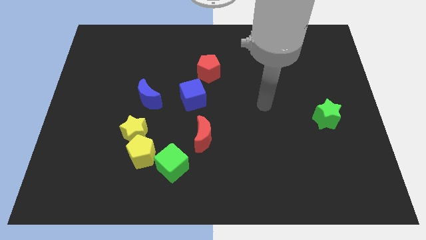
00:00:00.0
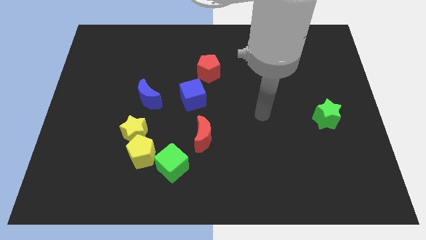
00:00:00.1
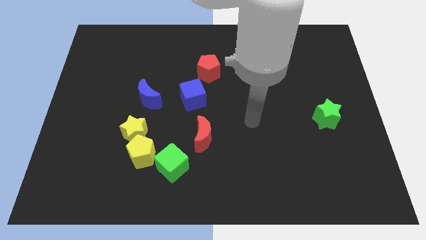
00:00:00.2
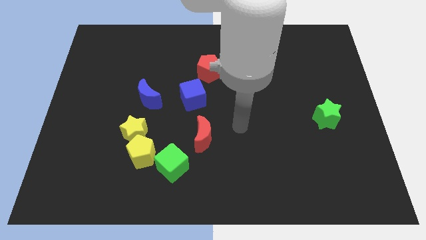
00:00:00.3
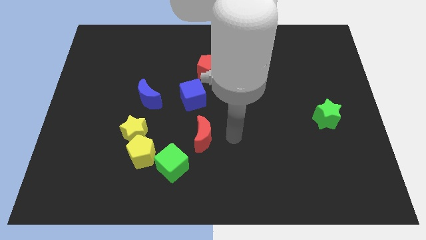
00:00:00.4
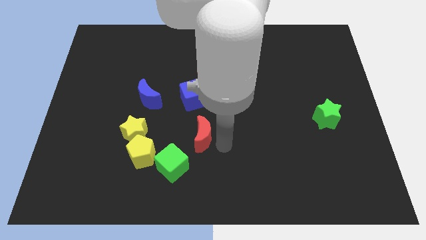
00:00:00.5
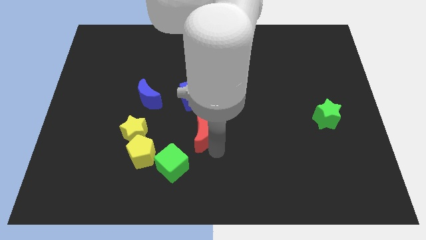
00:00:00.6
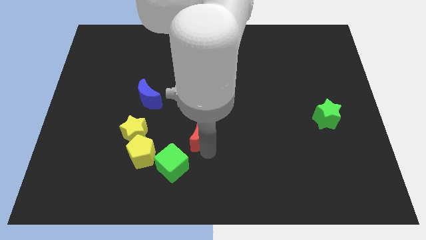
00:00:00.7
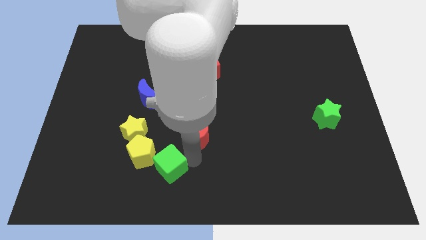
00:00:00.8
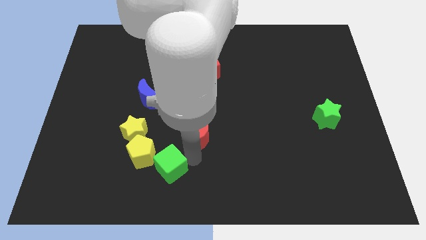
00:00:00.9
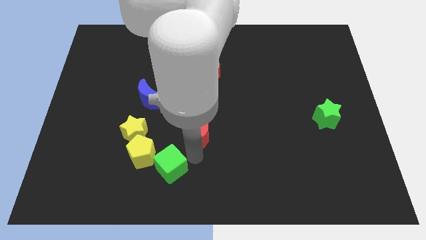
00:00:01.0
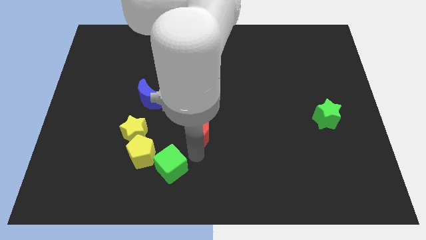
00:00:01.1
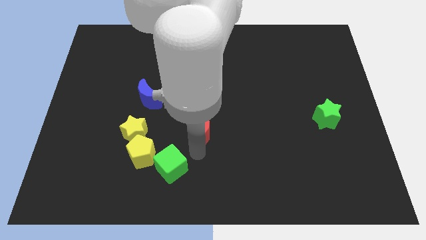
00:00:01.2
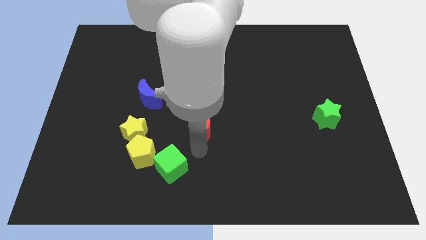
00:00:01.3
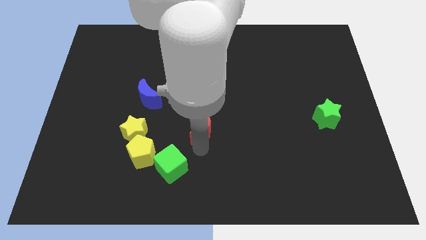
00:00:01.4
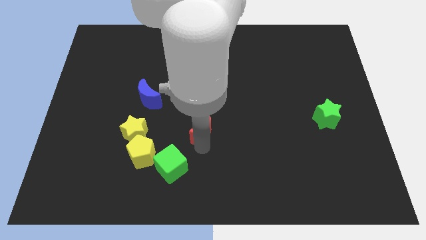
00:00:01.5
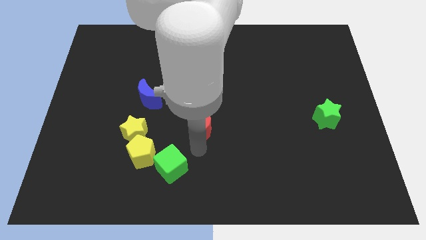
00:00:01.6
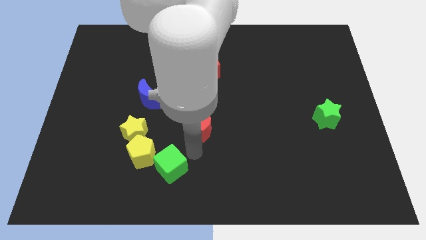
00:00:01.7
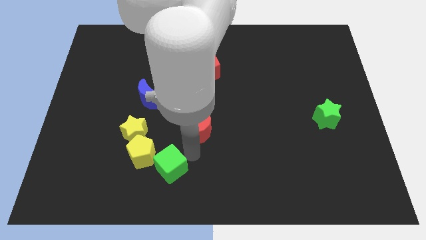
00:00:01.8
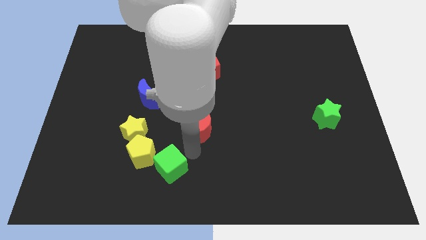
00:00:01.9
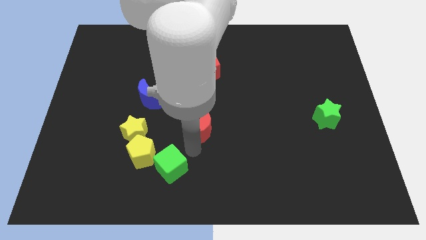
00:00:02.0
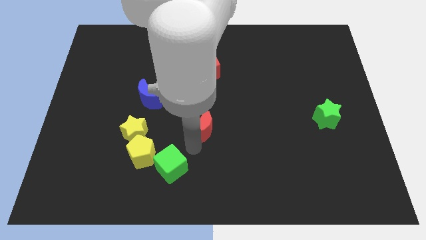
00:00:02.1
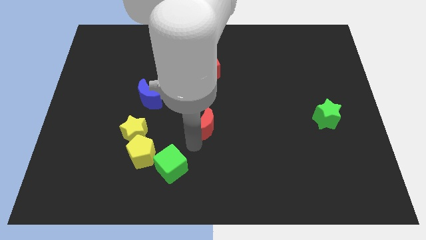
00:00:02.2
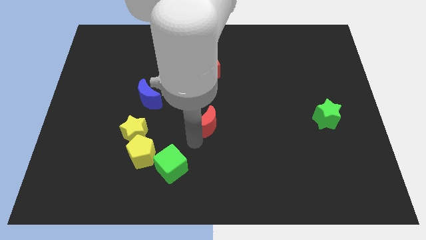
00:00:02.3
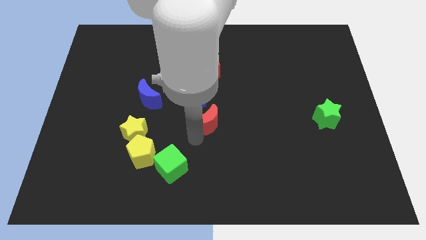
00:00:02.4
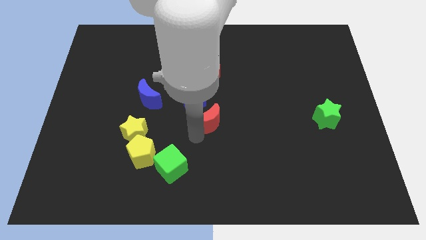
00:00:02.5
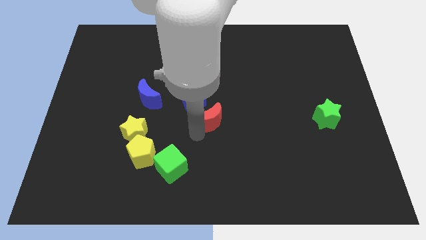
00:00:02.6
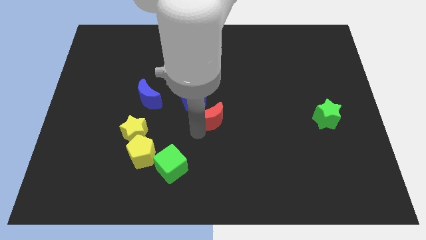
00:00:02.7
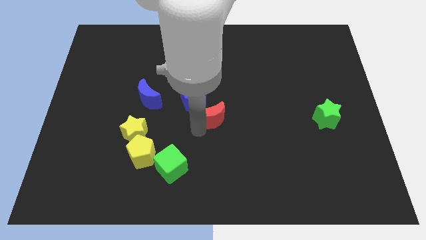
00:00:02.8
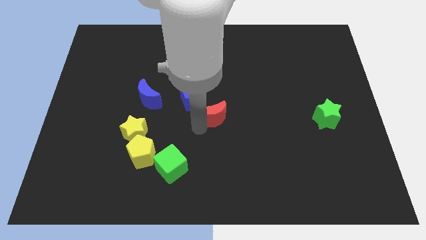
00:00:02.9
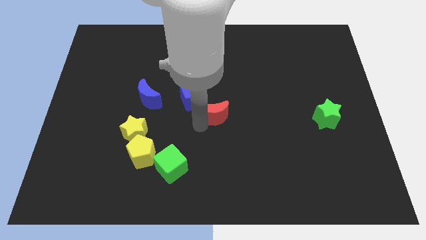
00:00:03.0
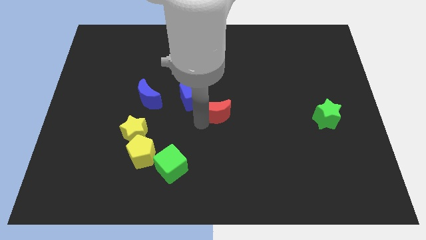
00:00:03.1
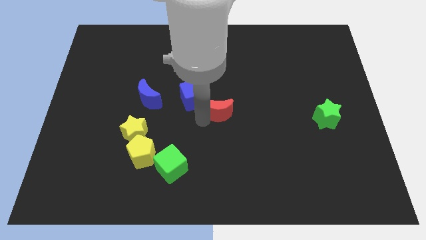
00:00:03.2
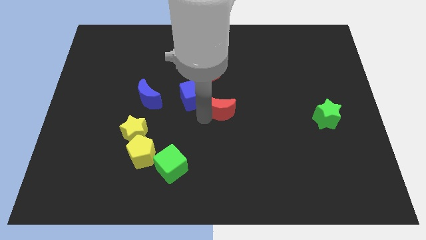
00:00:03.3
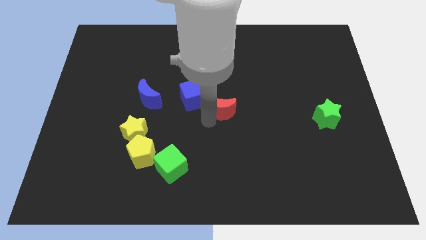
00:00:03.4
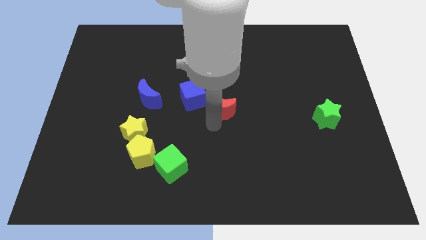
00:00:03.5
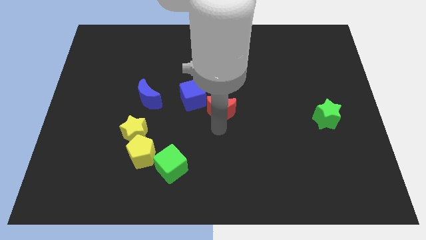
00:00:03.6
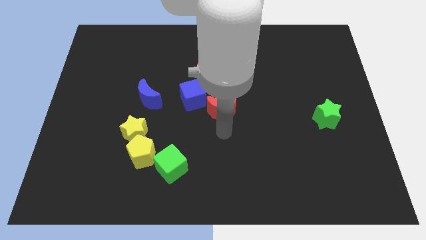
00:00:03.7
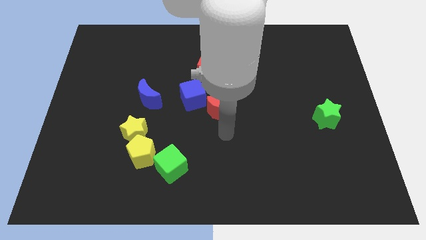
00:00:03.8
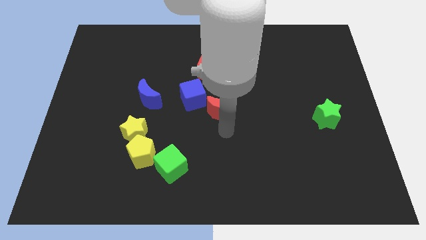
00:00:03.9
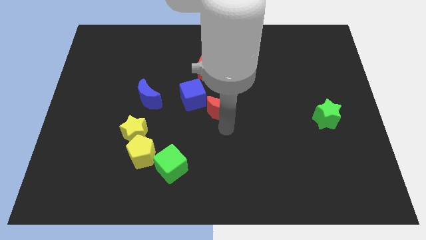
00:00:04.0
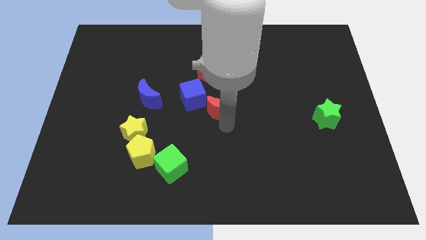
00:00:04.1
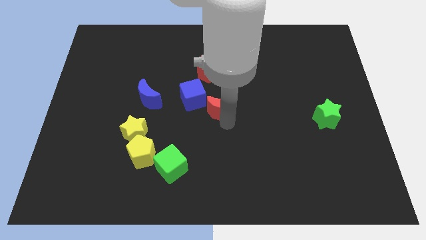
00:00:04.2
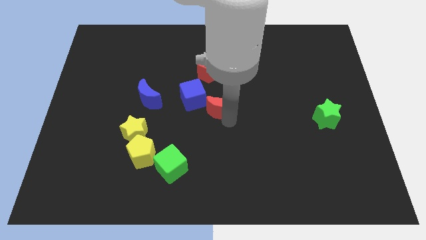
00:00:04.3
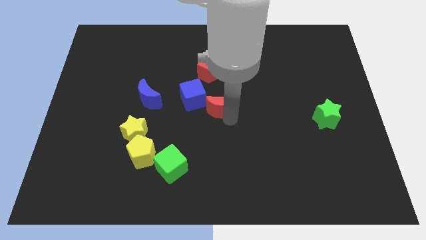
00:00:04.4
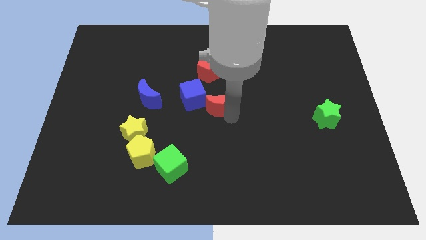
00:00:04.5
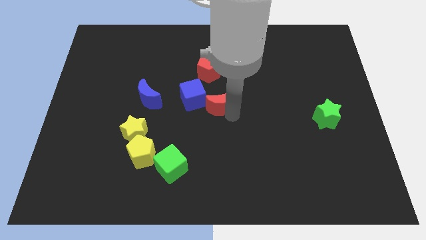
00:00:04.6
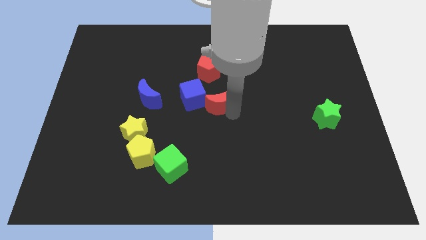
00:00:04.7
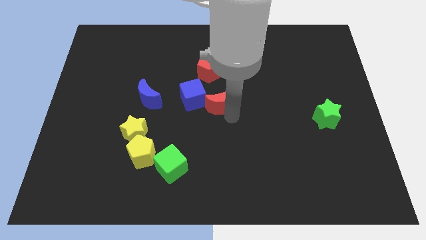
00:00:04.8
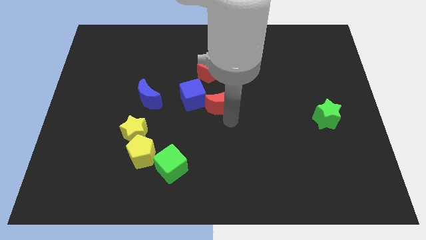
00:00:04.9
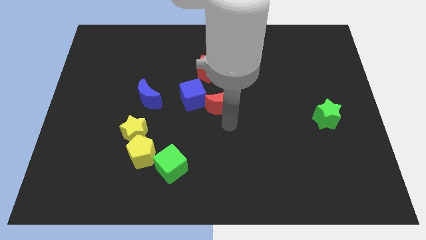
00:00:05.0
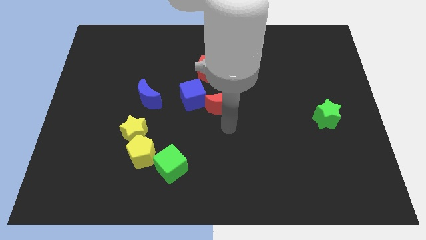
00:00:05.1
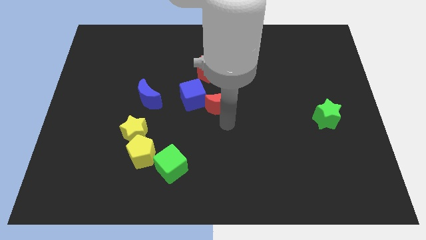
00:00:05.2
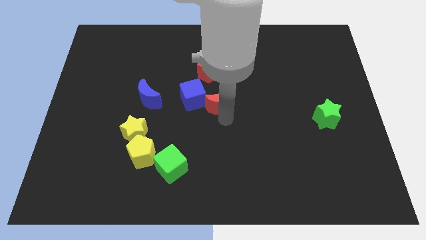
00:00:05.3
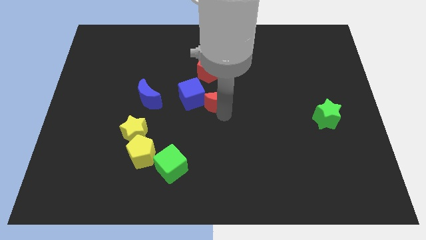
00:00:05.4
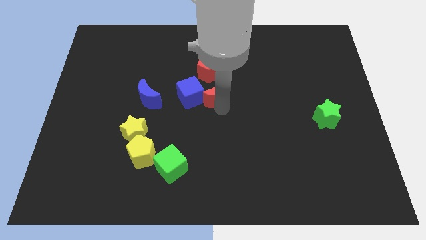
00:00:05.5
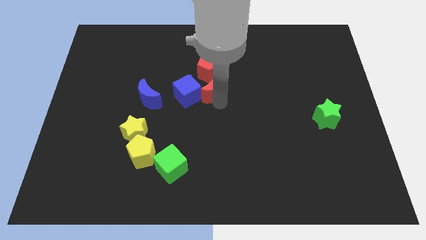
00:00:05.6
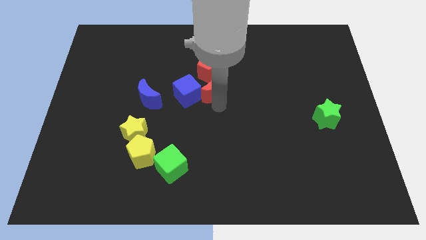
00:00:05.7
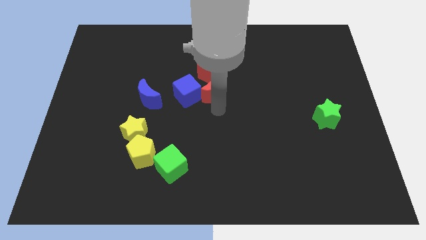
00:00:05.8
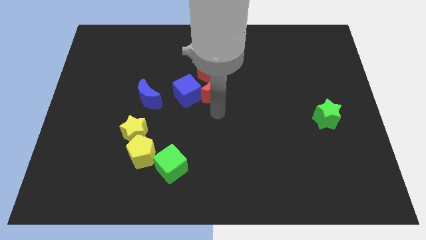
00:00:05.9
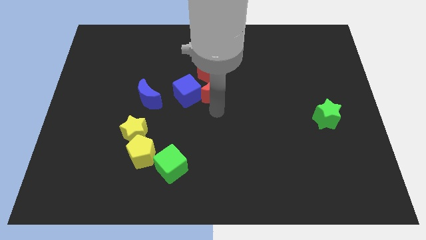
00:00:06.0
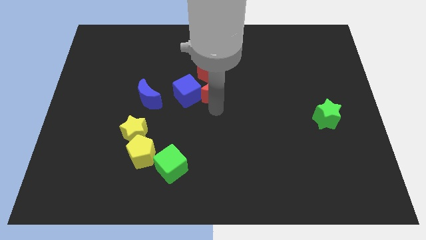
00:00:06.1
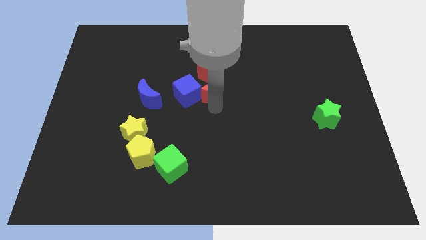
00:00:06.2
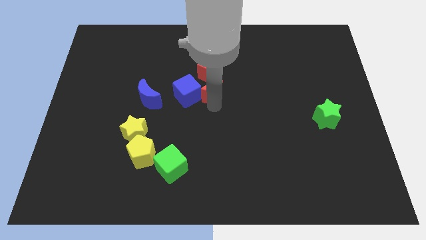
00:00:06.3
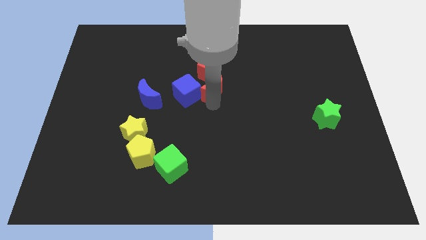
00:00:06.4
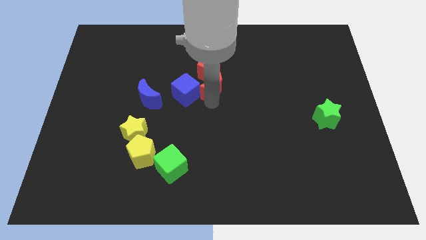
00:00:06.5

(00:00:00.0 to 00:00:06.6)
put the red moon towards the red pentagon

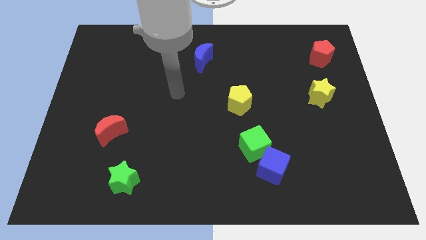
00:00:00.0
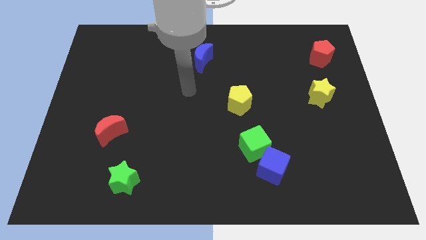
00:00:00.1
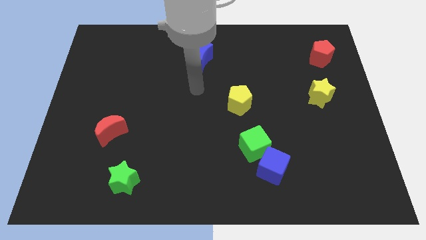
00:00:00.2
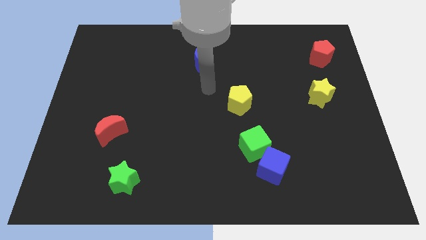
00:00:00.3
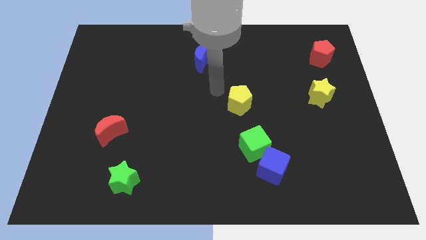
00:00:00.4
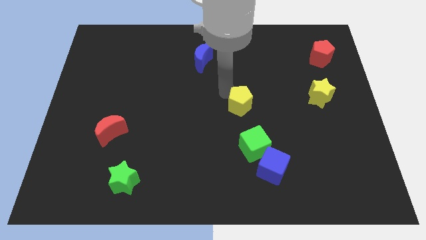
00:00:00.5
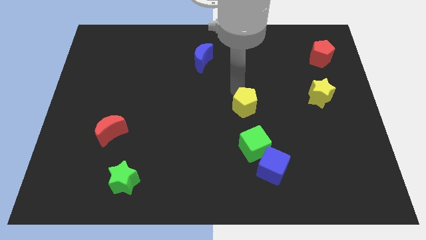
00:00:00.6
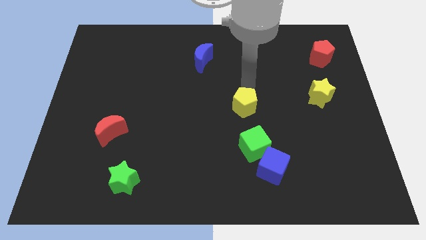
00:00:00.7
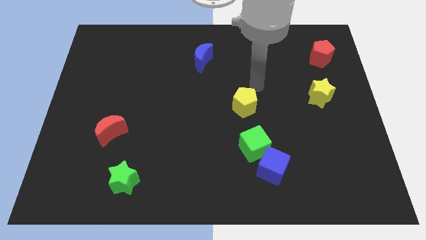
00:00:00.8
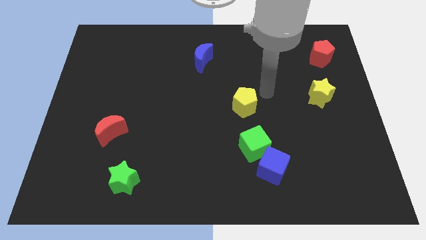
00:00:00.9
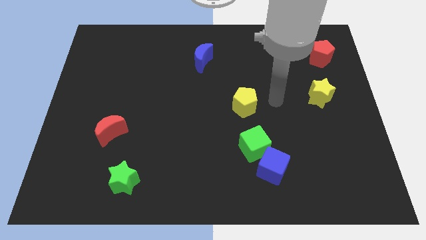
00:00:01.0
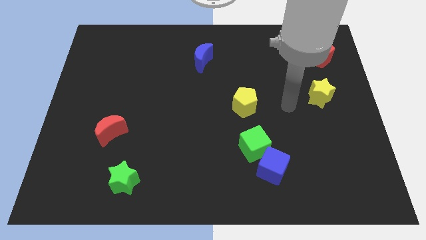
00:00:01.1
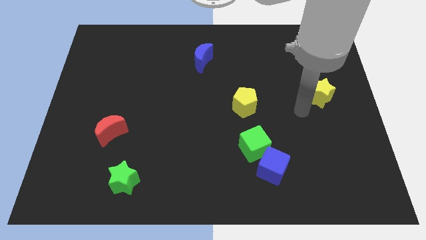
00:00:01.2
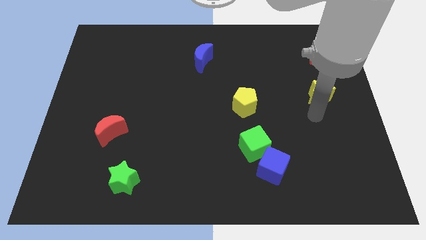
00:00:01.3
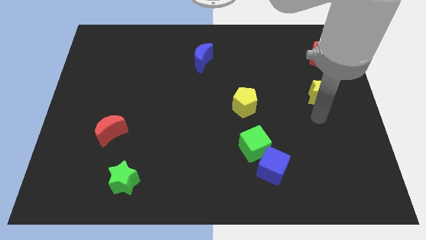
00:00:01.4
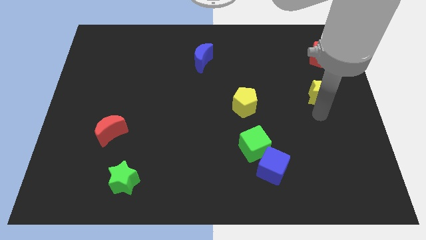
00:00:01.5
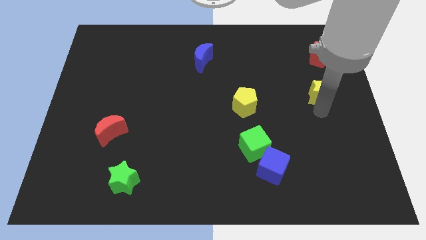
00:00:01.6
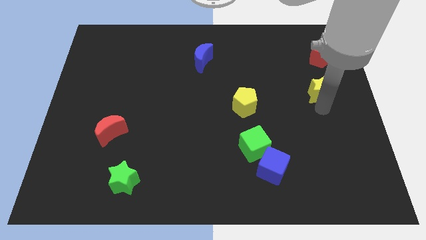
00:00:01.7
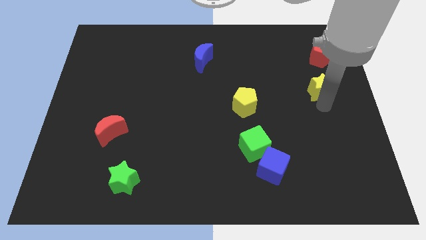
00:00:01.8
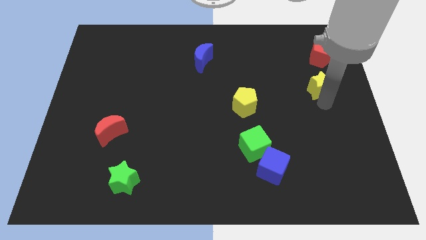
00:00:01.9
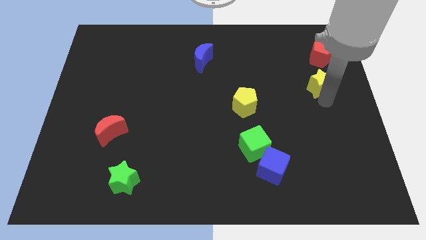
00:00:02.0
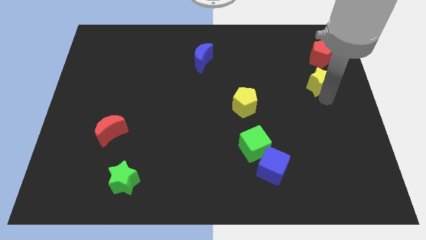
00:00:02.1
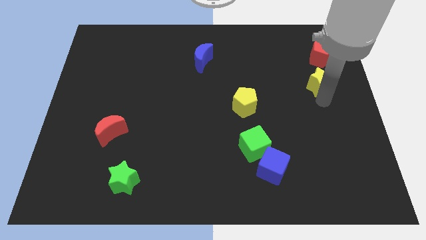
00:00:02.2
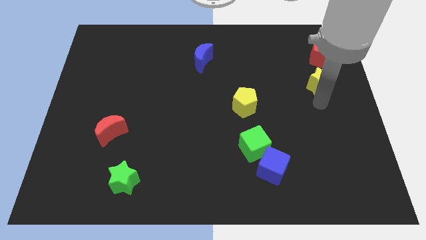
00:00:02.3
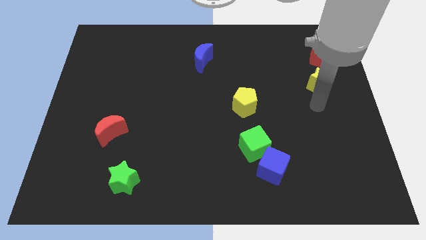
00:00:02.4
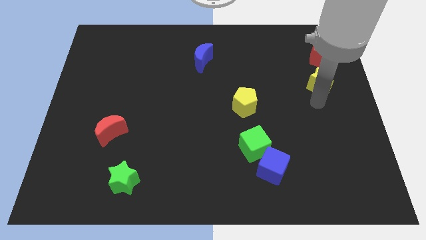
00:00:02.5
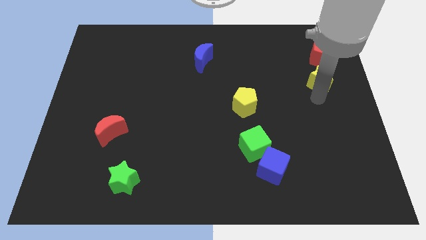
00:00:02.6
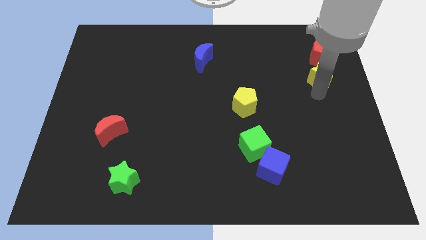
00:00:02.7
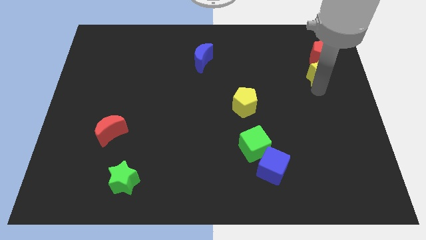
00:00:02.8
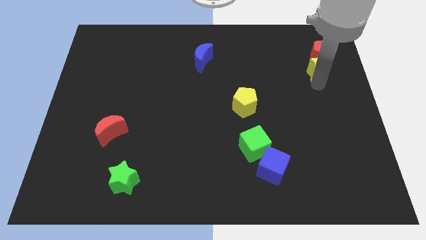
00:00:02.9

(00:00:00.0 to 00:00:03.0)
push the yellow star towards the red pentagon
